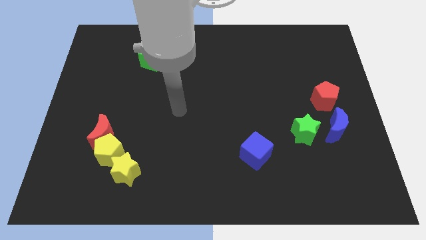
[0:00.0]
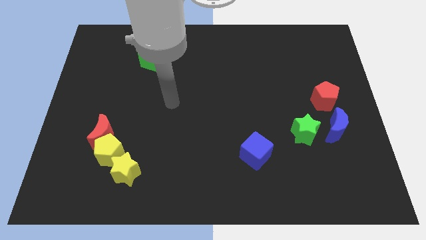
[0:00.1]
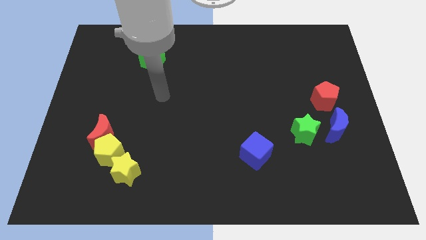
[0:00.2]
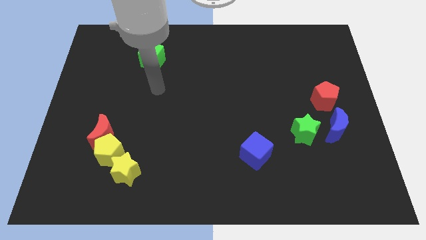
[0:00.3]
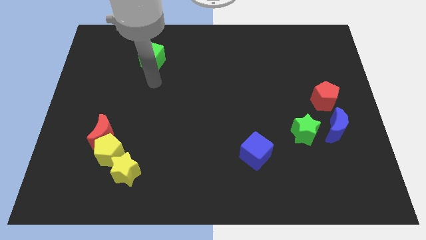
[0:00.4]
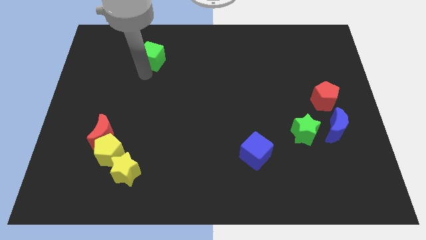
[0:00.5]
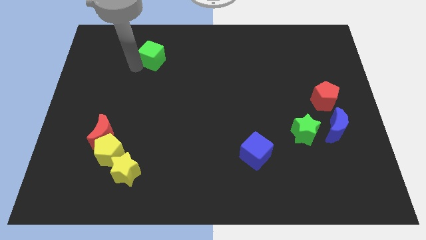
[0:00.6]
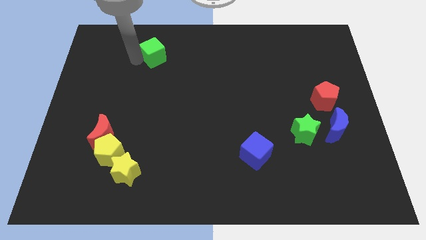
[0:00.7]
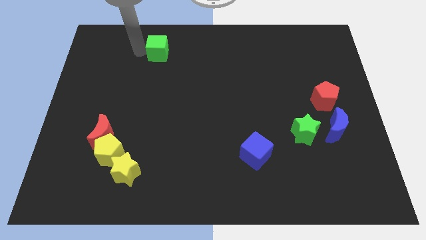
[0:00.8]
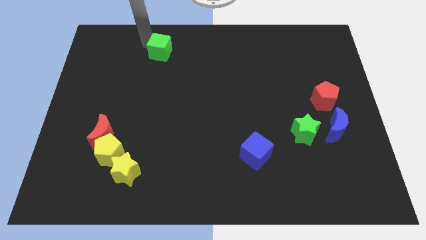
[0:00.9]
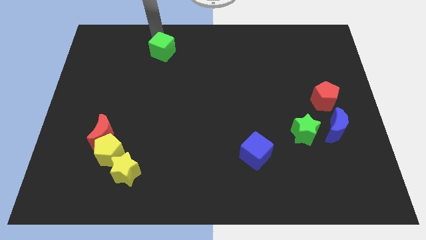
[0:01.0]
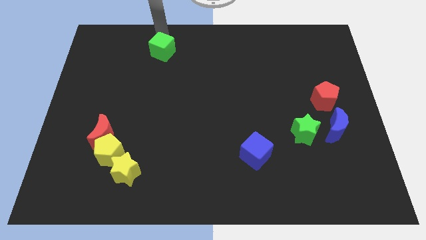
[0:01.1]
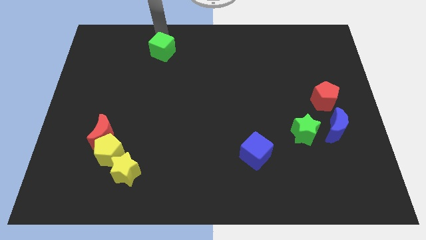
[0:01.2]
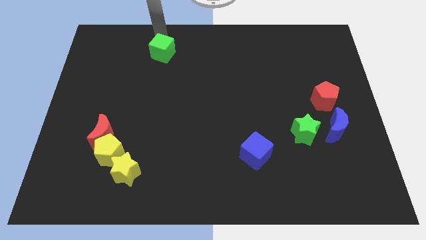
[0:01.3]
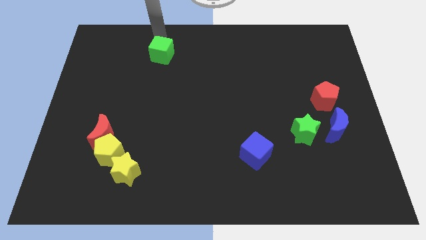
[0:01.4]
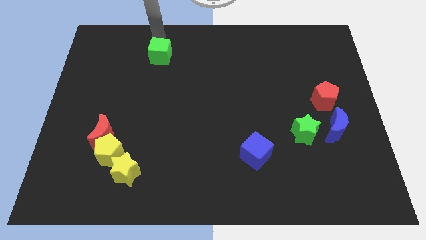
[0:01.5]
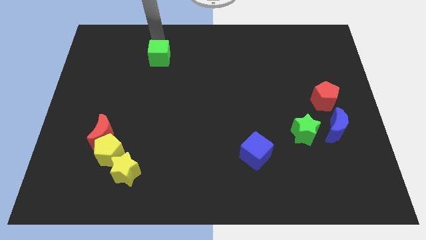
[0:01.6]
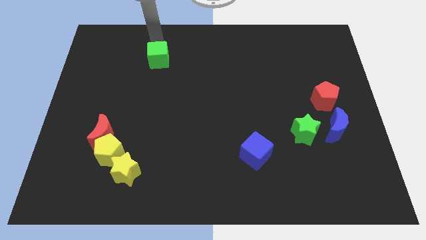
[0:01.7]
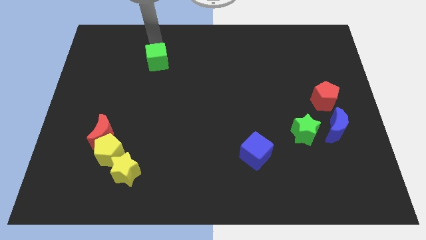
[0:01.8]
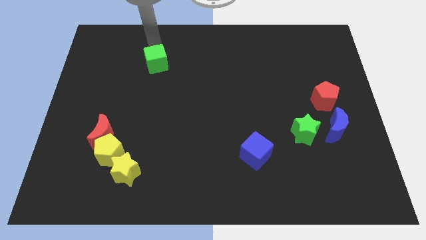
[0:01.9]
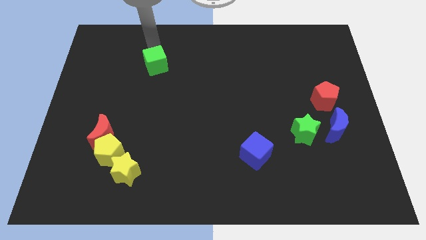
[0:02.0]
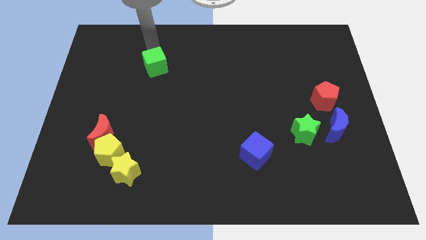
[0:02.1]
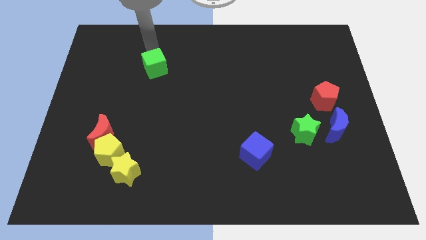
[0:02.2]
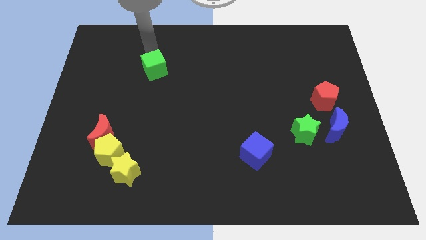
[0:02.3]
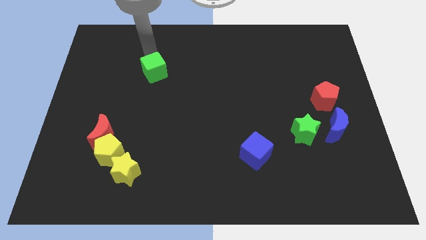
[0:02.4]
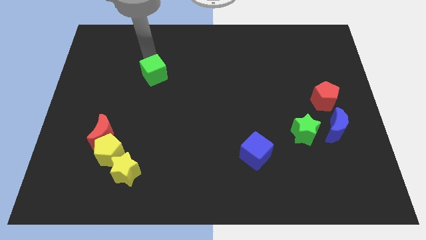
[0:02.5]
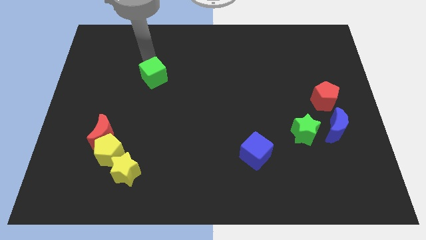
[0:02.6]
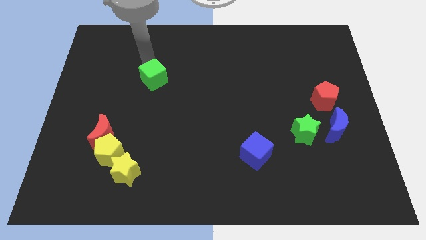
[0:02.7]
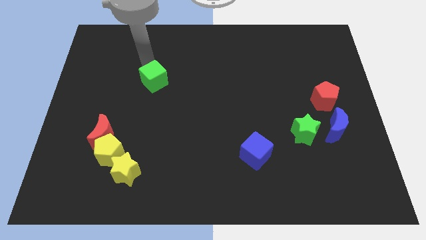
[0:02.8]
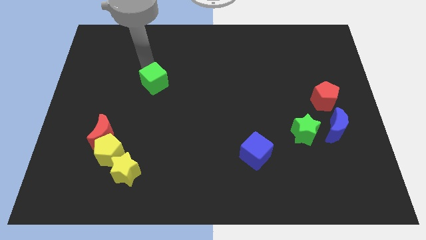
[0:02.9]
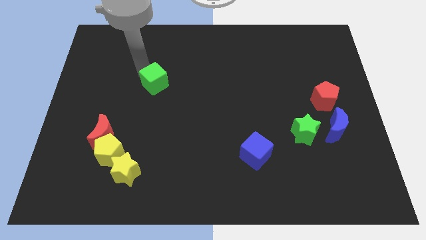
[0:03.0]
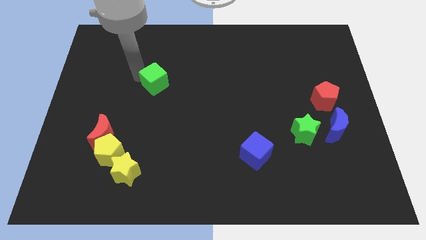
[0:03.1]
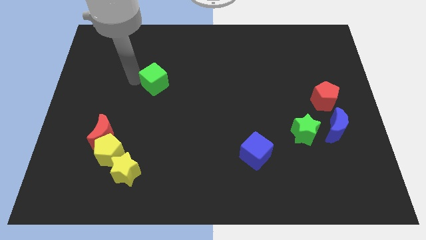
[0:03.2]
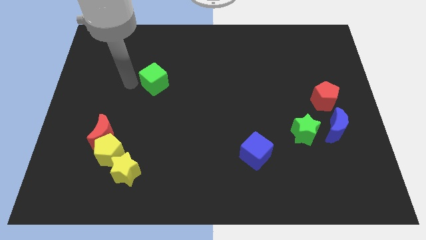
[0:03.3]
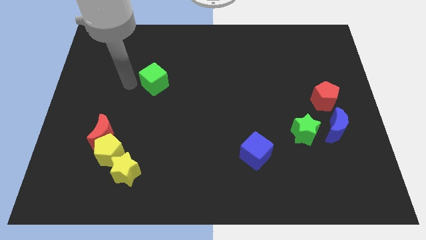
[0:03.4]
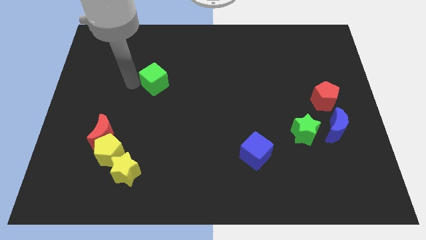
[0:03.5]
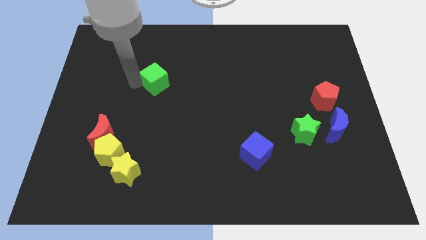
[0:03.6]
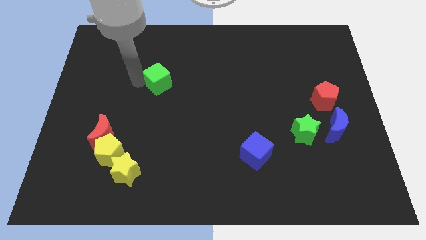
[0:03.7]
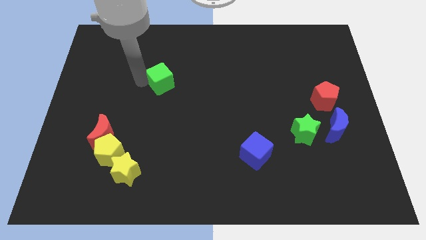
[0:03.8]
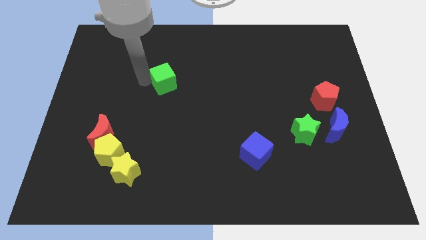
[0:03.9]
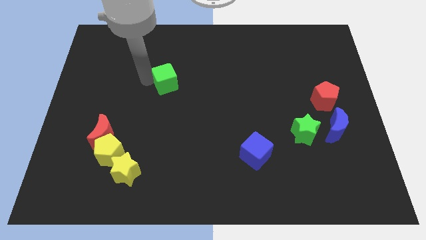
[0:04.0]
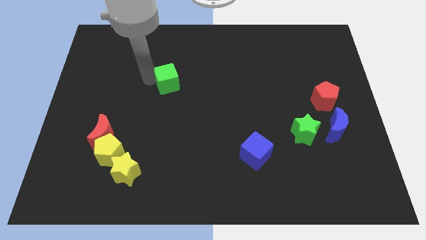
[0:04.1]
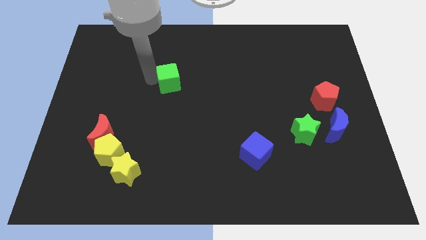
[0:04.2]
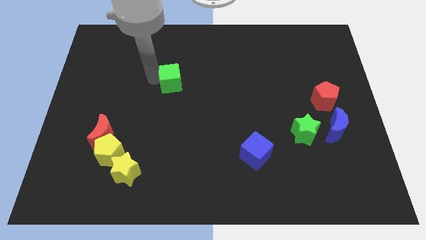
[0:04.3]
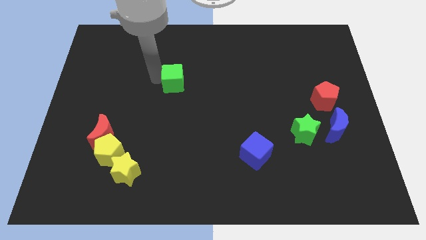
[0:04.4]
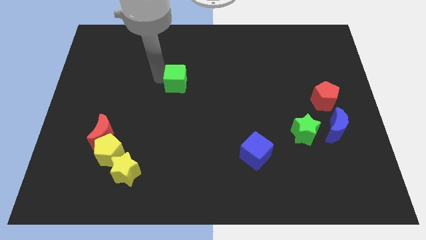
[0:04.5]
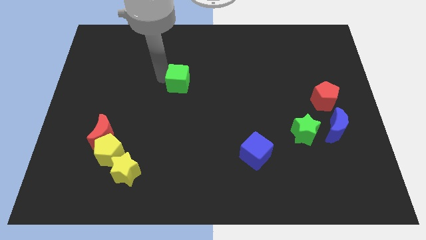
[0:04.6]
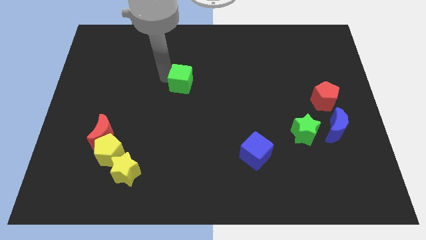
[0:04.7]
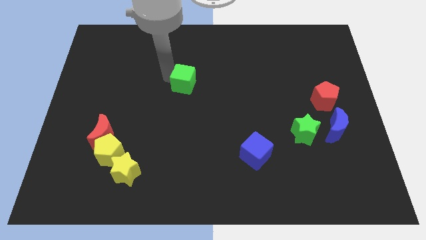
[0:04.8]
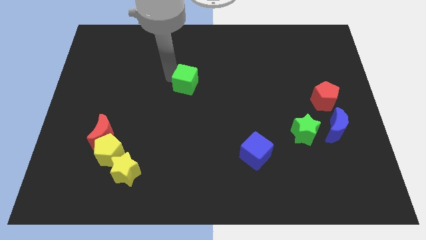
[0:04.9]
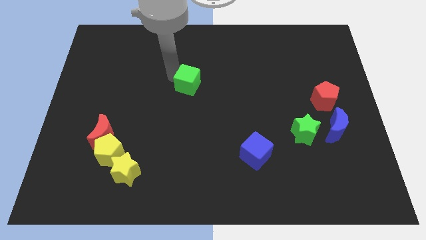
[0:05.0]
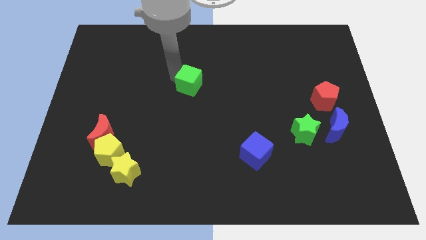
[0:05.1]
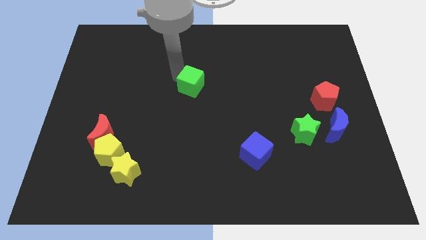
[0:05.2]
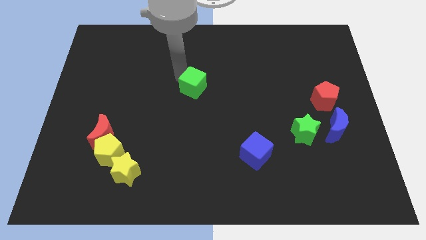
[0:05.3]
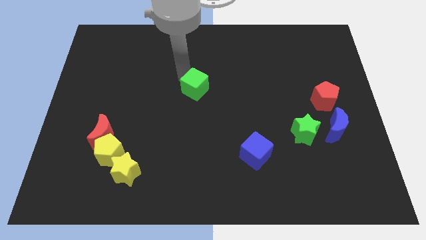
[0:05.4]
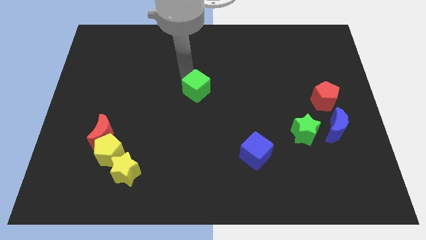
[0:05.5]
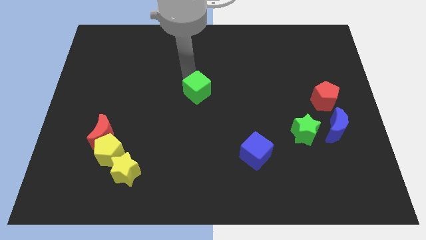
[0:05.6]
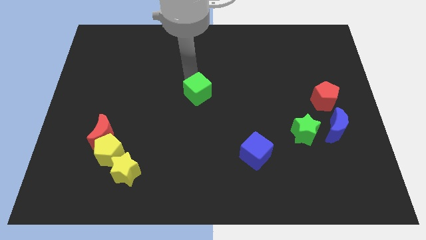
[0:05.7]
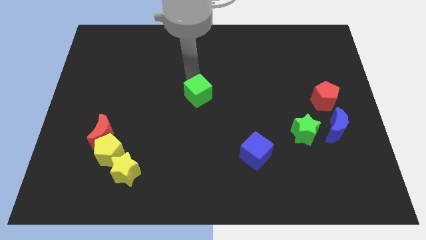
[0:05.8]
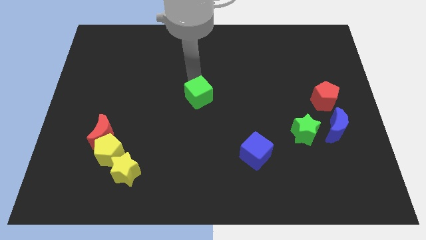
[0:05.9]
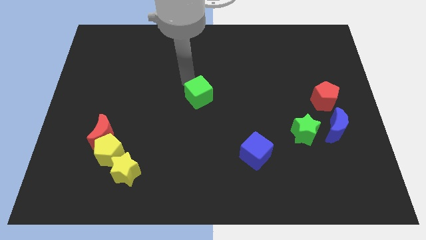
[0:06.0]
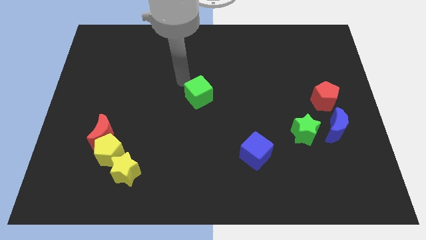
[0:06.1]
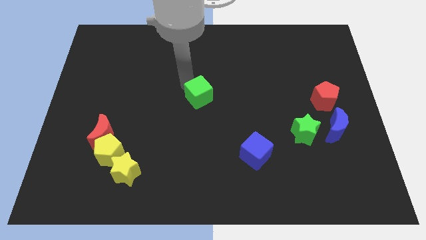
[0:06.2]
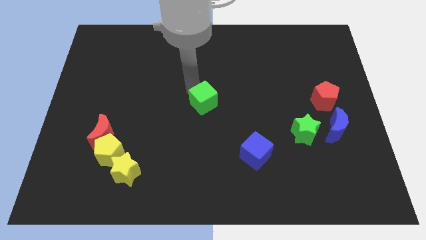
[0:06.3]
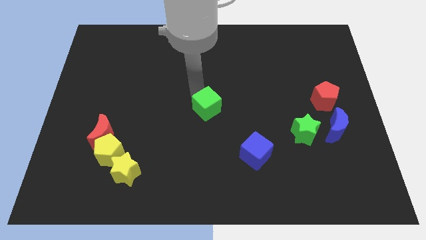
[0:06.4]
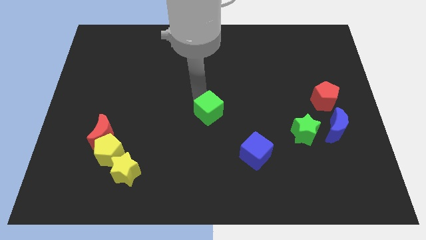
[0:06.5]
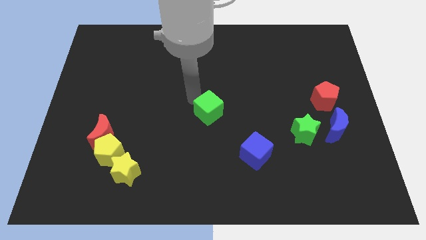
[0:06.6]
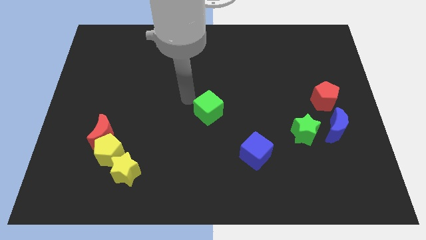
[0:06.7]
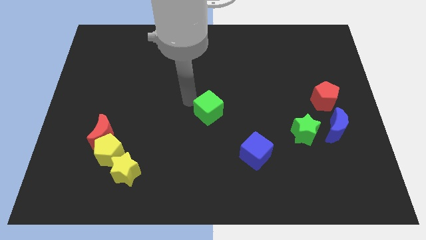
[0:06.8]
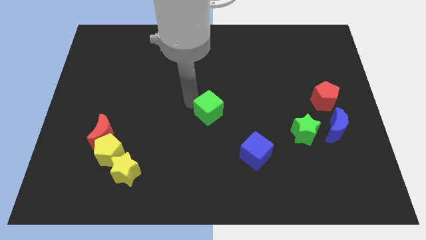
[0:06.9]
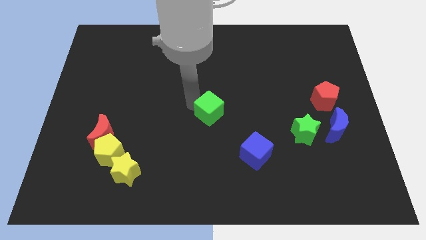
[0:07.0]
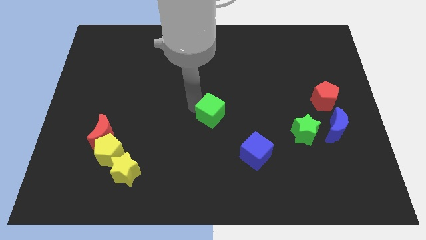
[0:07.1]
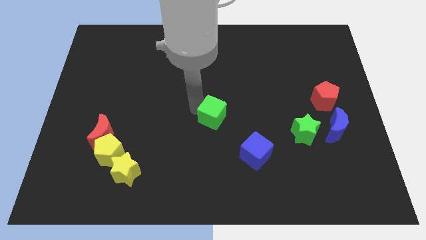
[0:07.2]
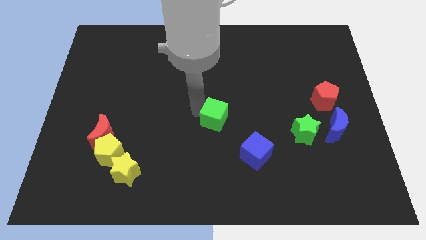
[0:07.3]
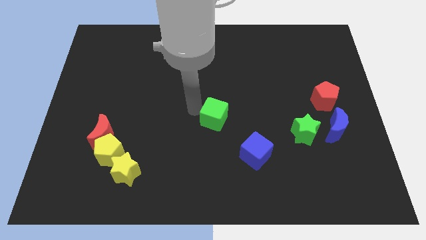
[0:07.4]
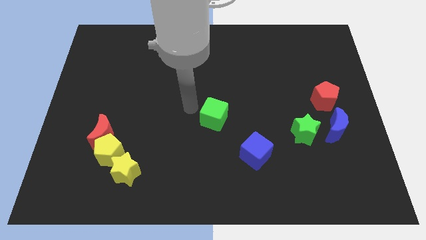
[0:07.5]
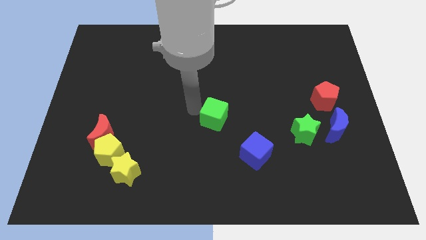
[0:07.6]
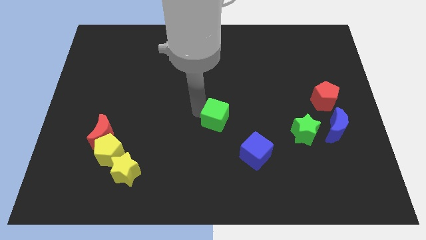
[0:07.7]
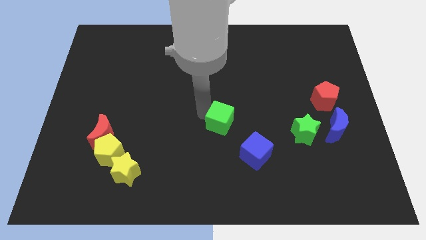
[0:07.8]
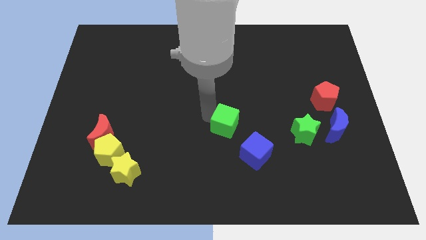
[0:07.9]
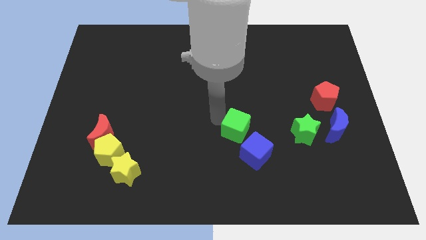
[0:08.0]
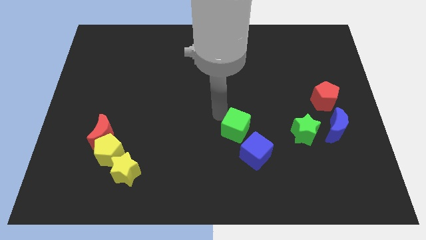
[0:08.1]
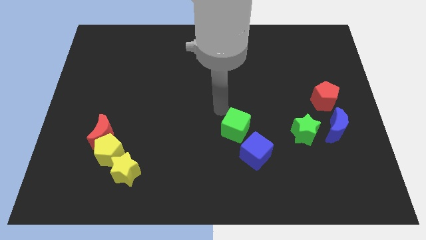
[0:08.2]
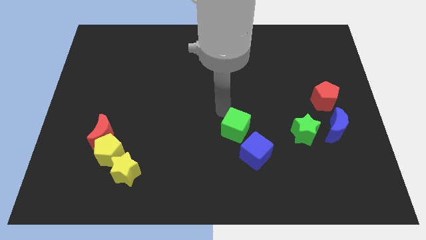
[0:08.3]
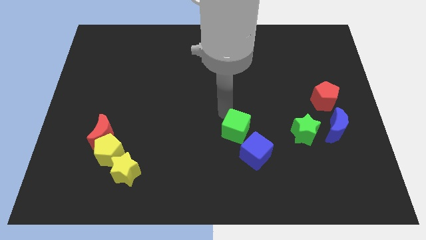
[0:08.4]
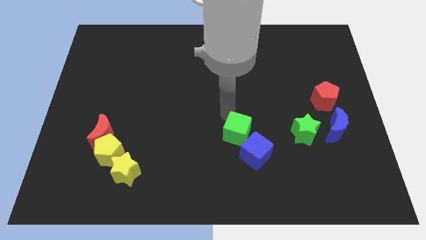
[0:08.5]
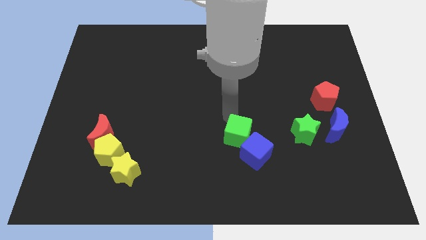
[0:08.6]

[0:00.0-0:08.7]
move the green cube next to the blue cube
